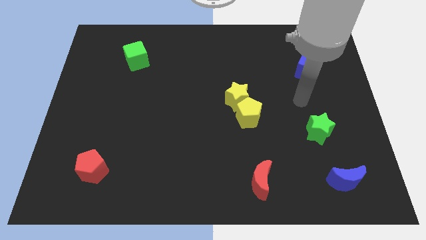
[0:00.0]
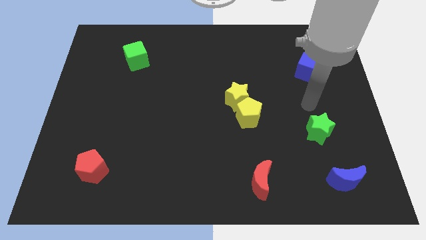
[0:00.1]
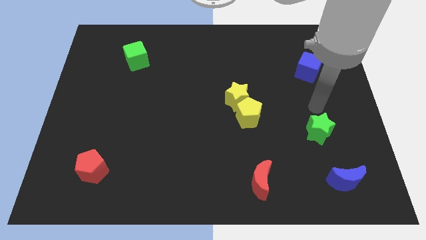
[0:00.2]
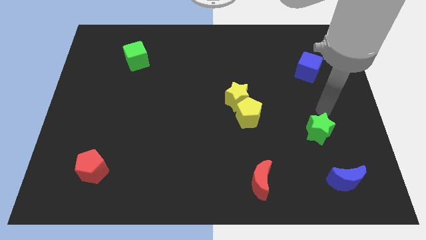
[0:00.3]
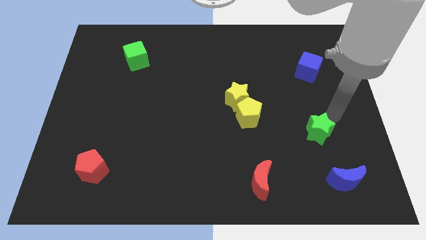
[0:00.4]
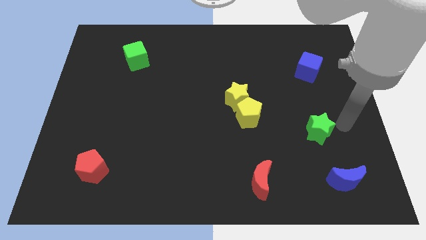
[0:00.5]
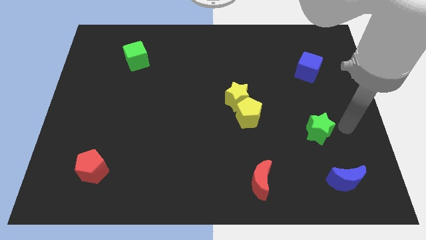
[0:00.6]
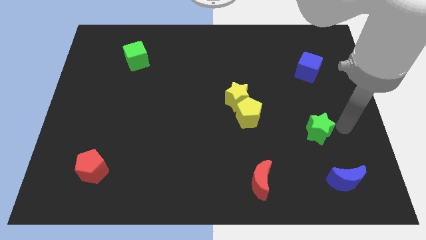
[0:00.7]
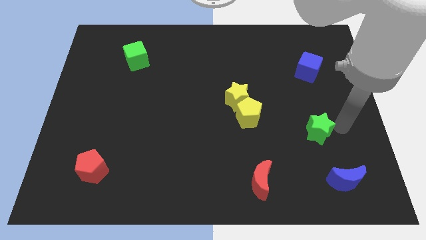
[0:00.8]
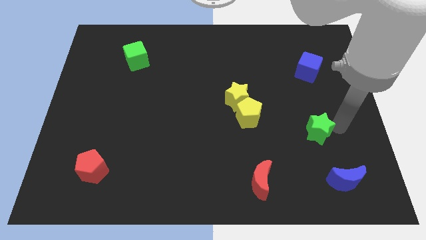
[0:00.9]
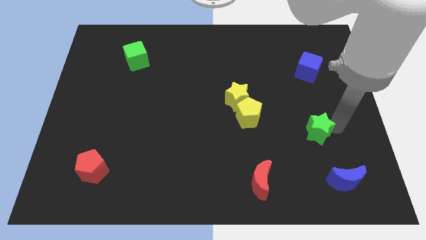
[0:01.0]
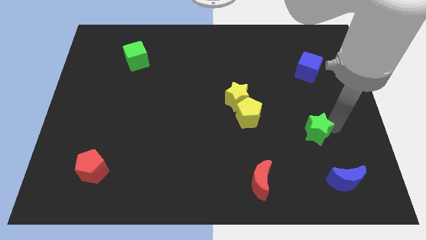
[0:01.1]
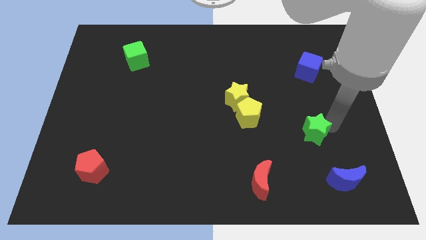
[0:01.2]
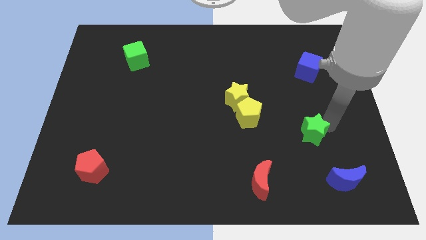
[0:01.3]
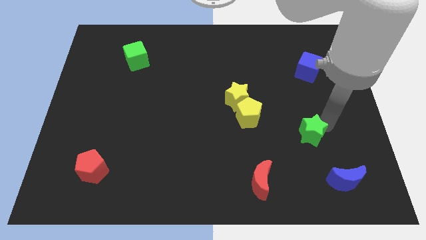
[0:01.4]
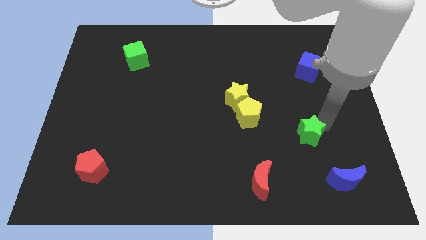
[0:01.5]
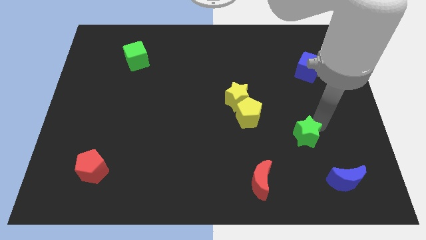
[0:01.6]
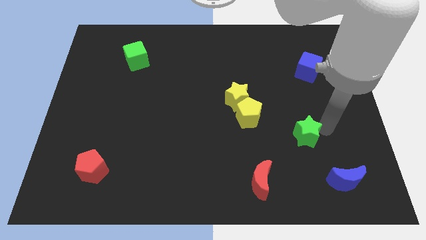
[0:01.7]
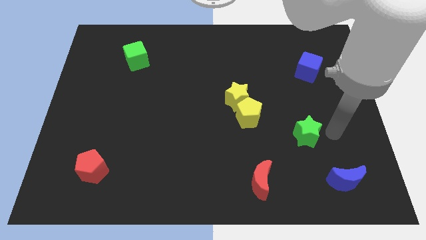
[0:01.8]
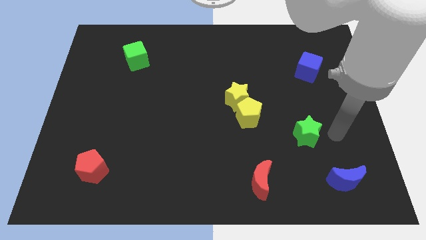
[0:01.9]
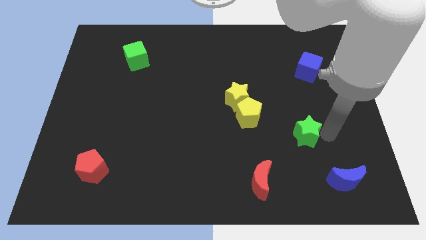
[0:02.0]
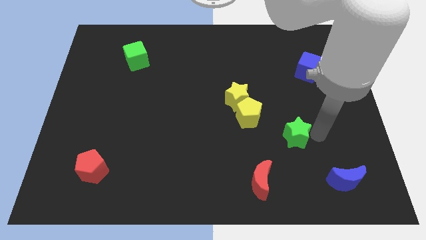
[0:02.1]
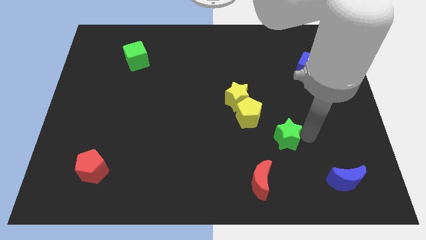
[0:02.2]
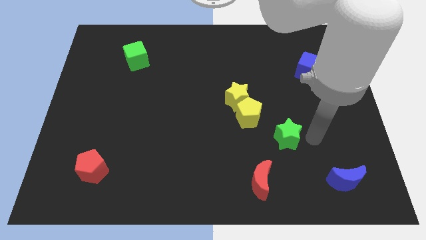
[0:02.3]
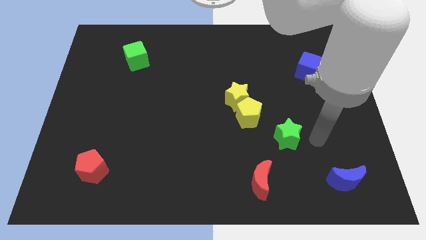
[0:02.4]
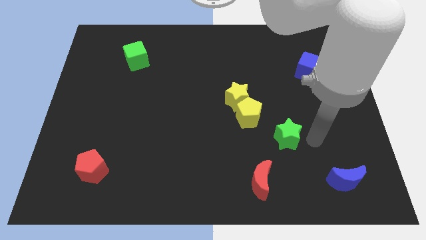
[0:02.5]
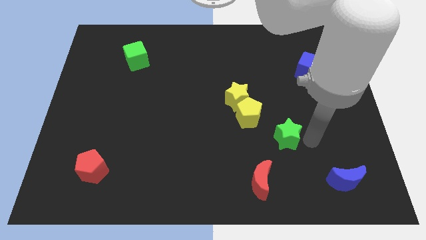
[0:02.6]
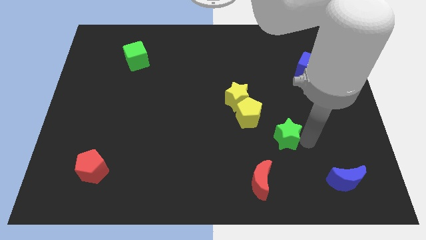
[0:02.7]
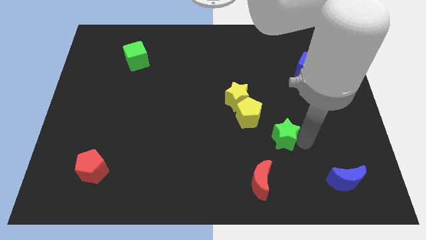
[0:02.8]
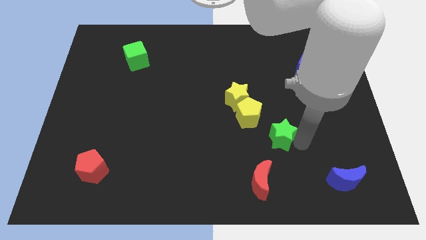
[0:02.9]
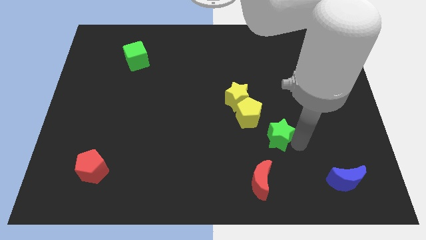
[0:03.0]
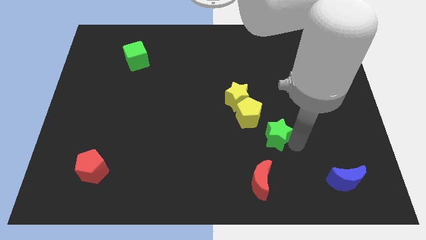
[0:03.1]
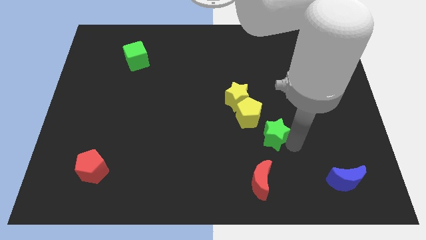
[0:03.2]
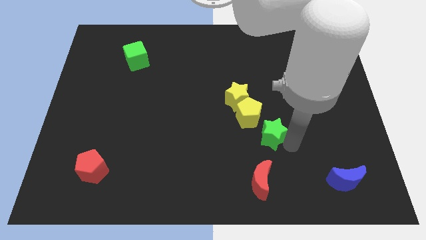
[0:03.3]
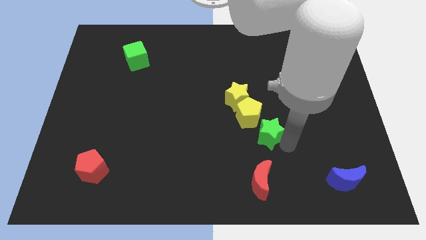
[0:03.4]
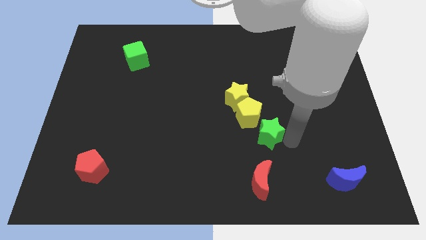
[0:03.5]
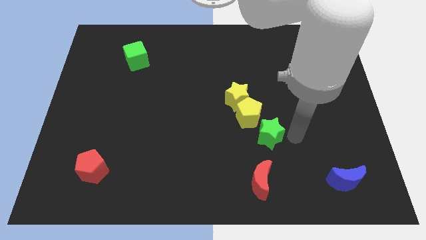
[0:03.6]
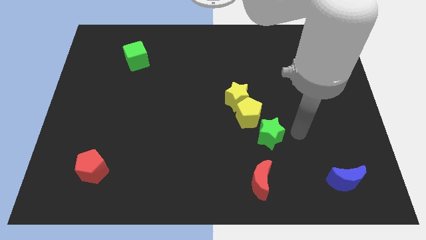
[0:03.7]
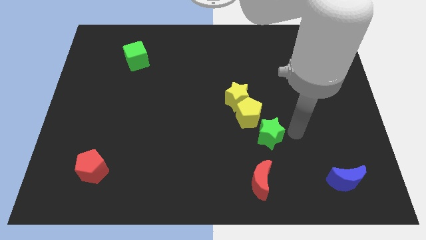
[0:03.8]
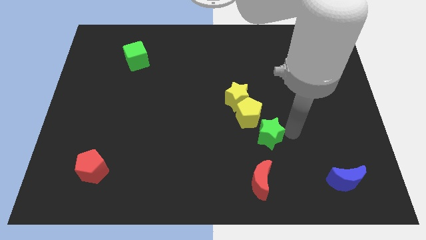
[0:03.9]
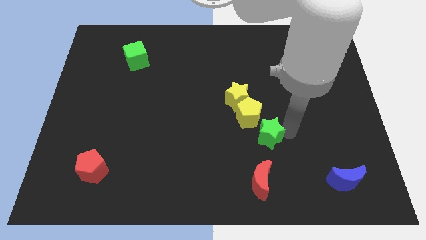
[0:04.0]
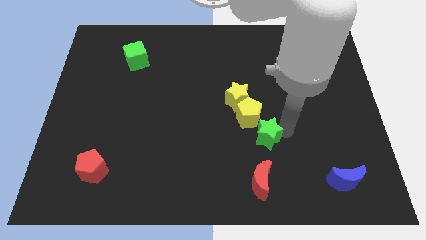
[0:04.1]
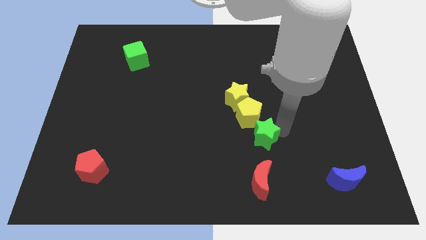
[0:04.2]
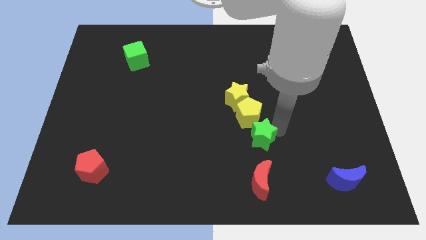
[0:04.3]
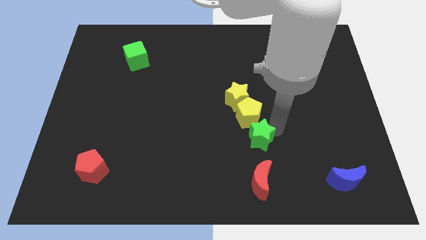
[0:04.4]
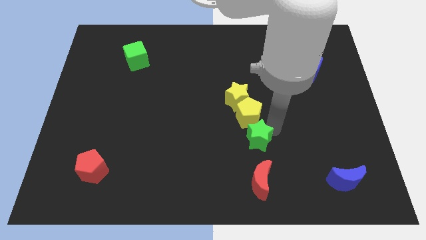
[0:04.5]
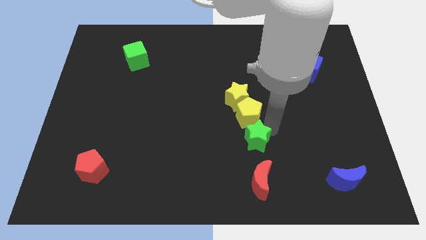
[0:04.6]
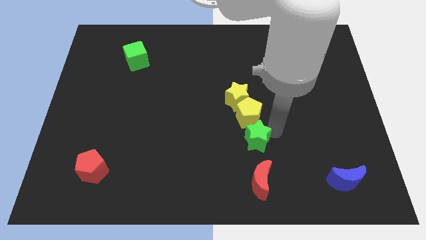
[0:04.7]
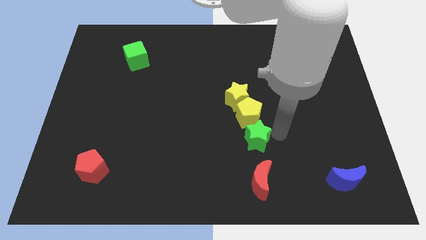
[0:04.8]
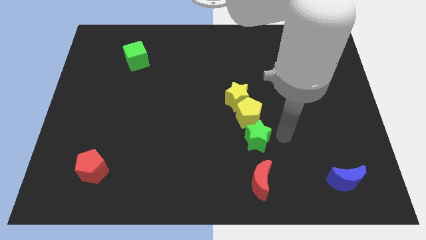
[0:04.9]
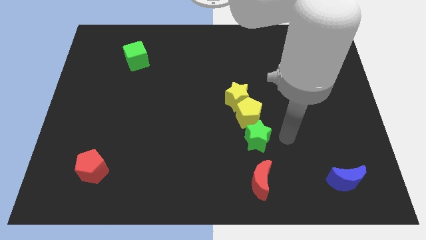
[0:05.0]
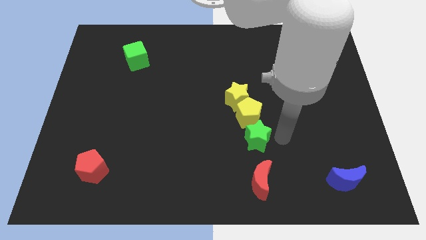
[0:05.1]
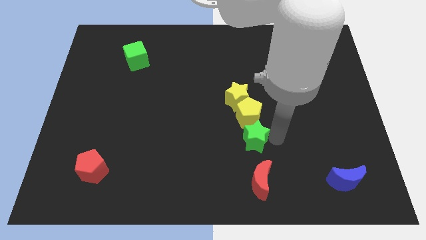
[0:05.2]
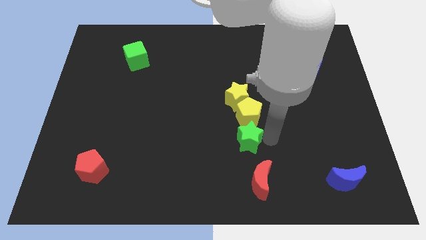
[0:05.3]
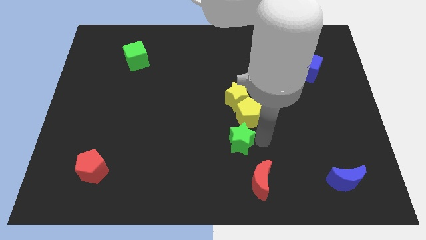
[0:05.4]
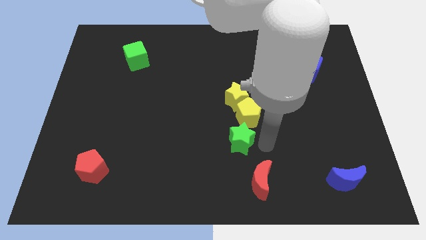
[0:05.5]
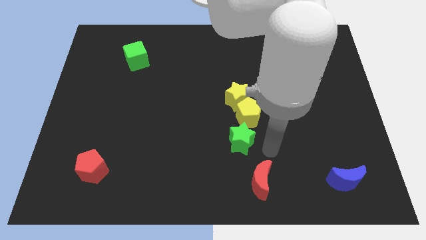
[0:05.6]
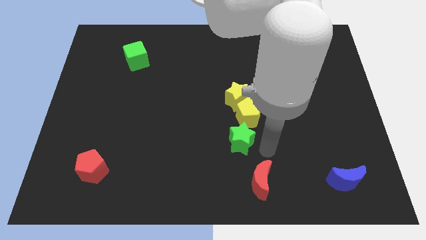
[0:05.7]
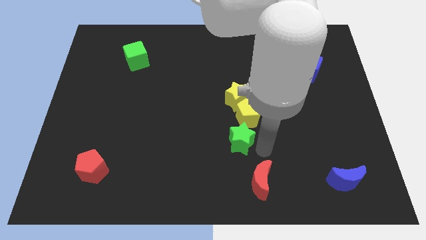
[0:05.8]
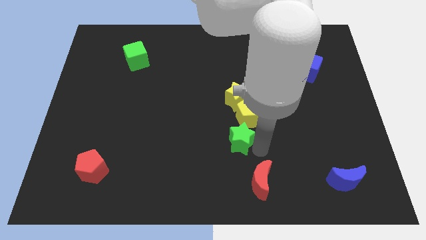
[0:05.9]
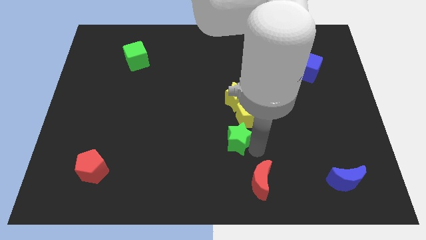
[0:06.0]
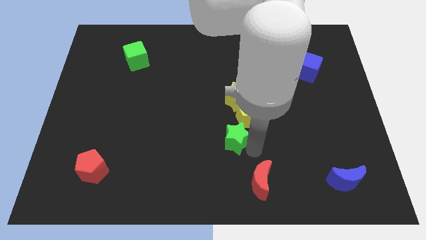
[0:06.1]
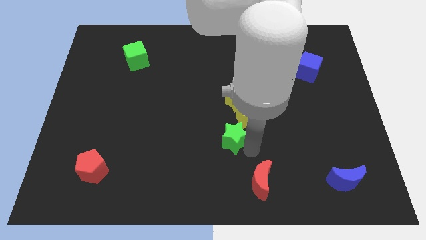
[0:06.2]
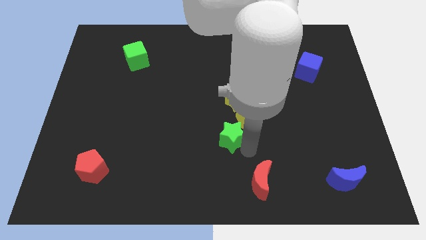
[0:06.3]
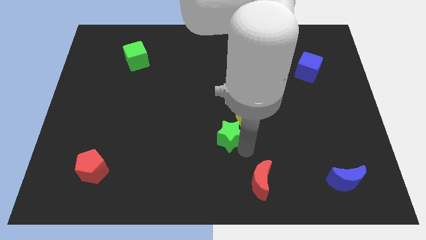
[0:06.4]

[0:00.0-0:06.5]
push the green star left

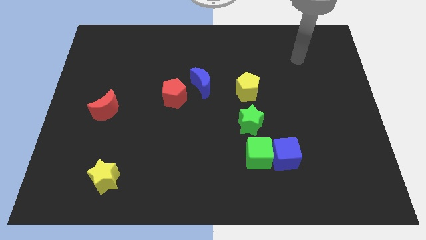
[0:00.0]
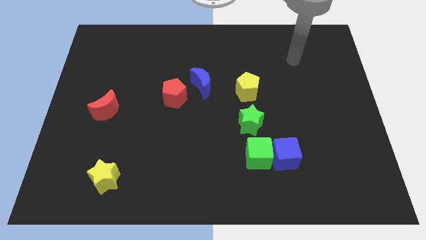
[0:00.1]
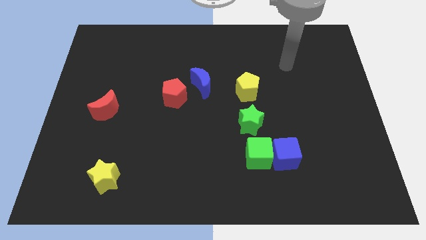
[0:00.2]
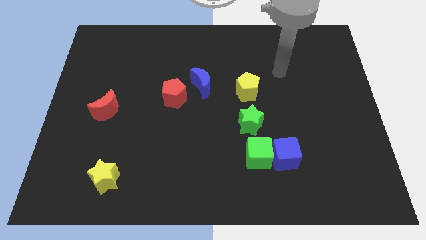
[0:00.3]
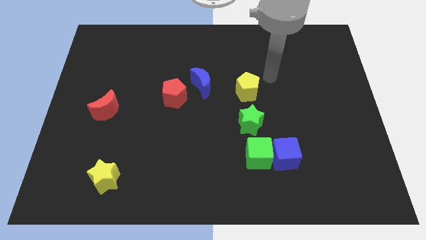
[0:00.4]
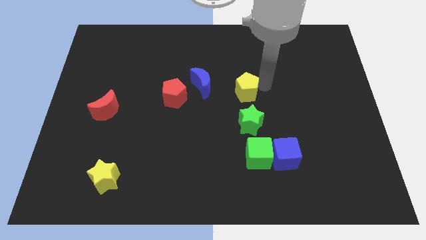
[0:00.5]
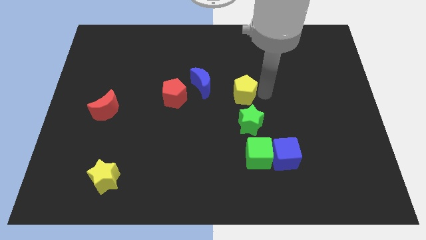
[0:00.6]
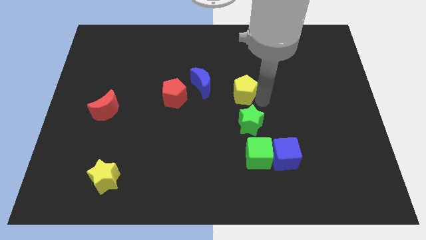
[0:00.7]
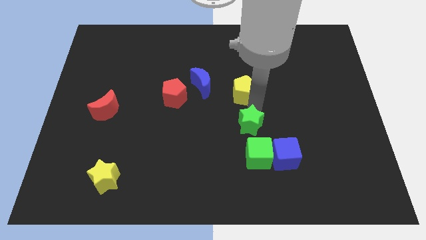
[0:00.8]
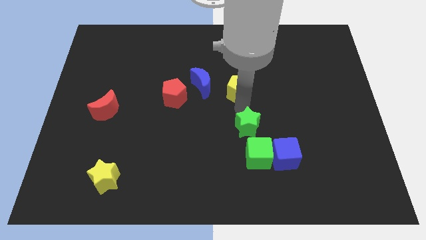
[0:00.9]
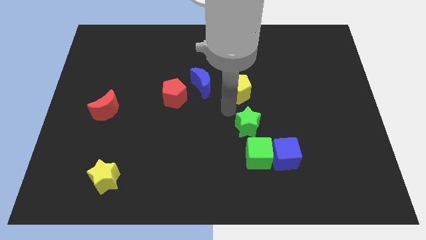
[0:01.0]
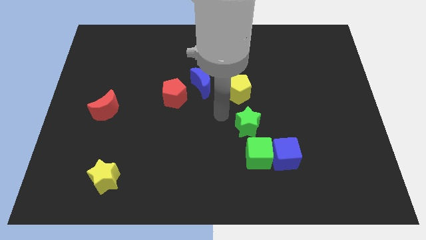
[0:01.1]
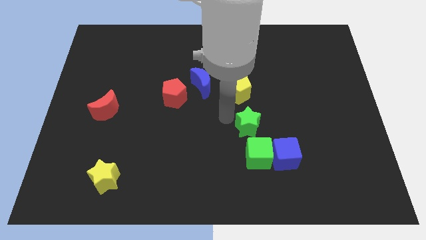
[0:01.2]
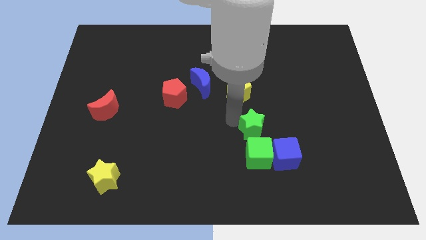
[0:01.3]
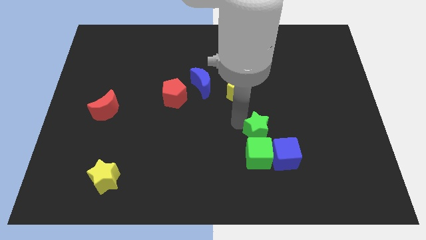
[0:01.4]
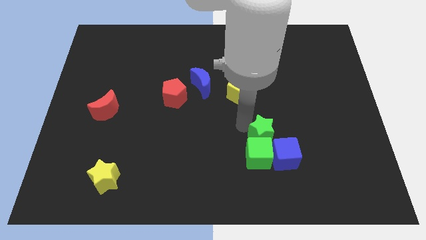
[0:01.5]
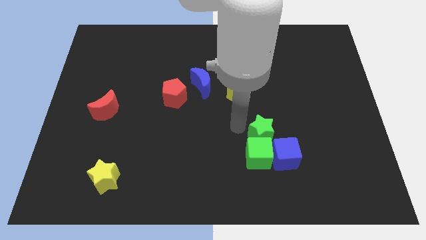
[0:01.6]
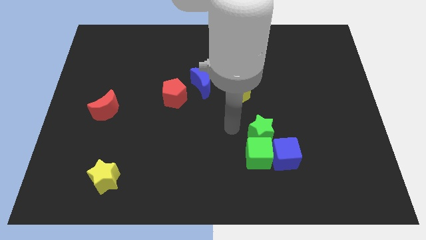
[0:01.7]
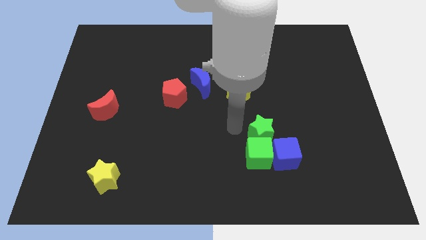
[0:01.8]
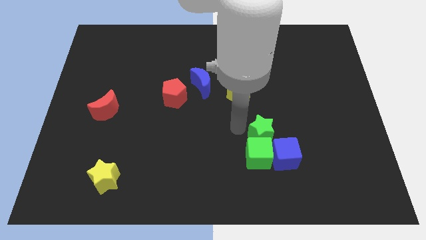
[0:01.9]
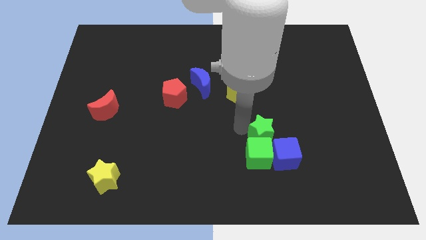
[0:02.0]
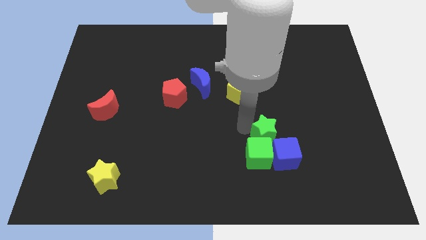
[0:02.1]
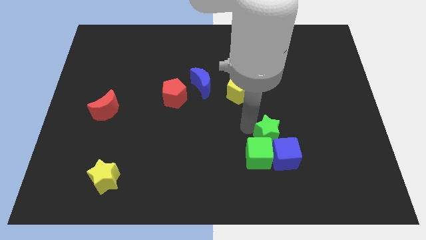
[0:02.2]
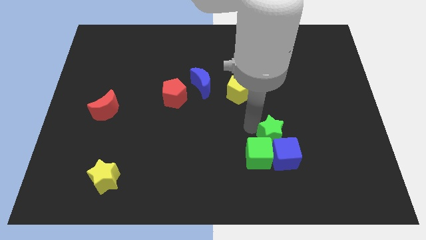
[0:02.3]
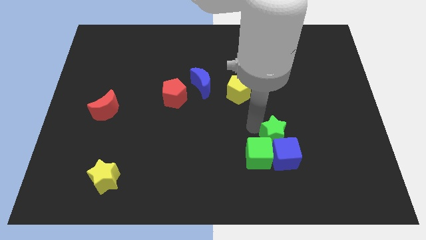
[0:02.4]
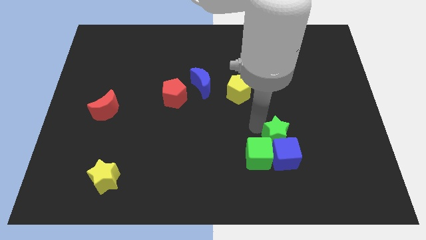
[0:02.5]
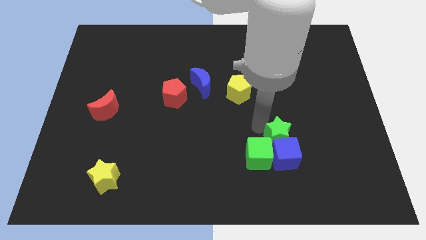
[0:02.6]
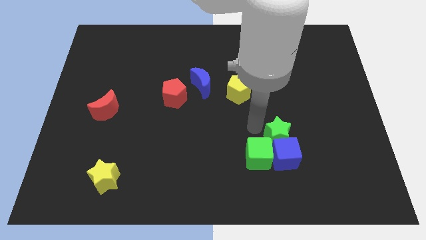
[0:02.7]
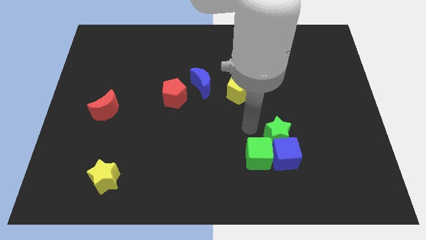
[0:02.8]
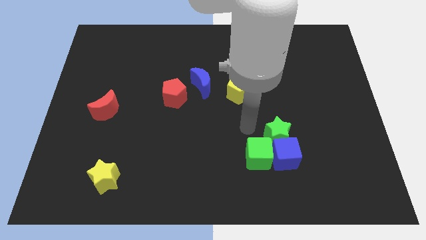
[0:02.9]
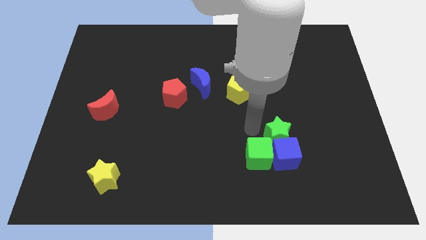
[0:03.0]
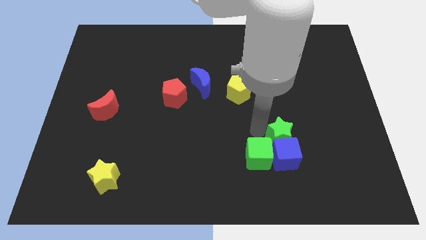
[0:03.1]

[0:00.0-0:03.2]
slightly move the green star downwards and to the right diagonally
